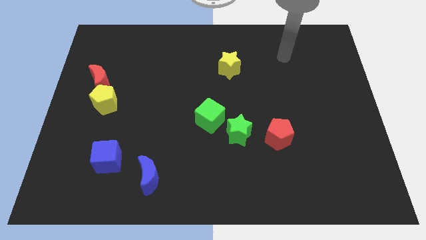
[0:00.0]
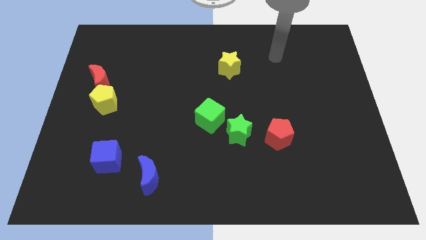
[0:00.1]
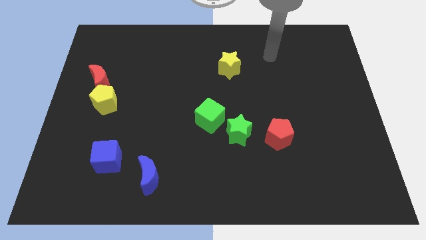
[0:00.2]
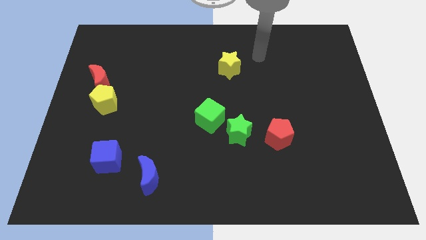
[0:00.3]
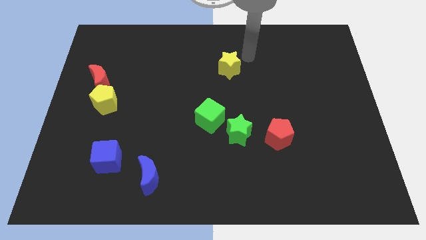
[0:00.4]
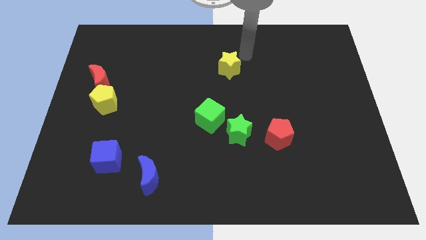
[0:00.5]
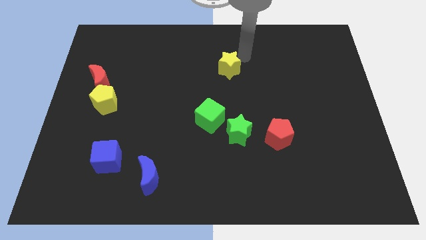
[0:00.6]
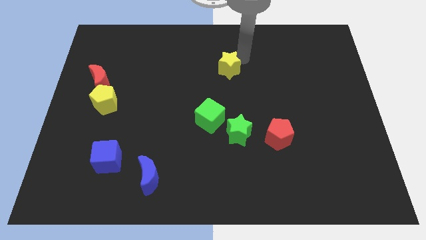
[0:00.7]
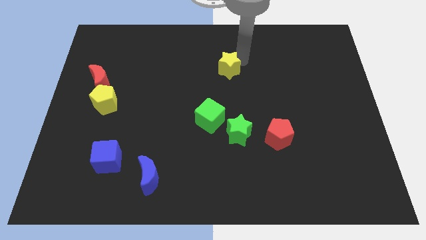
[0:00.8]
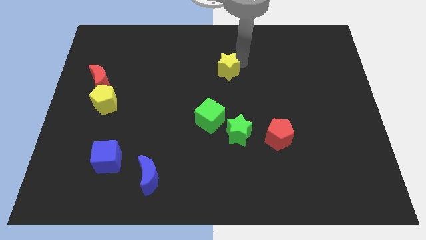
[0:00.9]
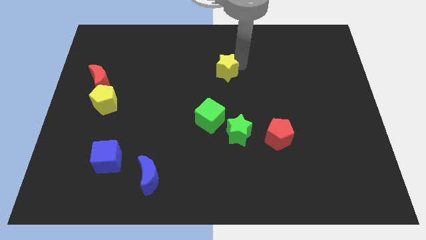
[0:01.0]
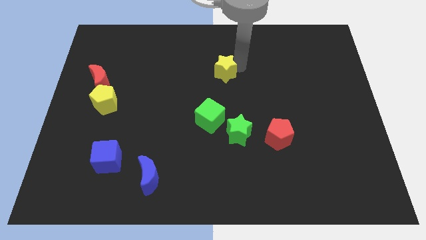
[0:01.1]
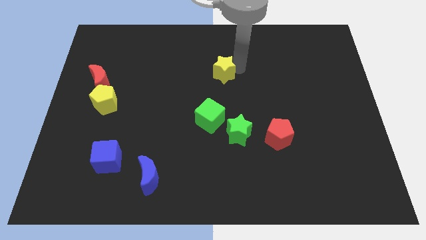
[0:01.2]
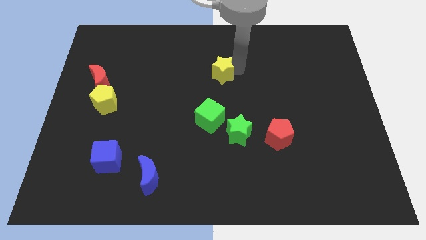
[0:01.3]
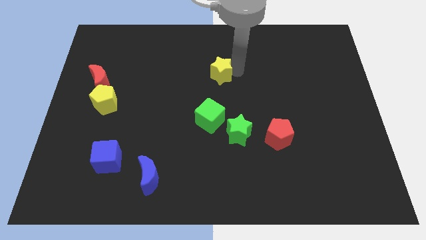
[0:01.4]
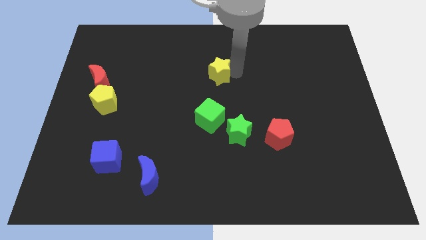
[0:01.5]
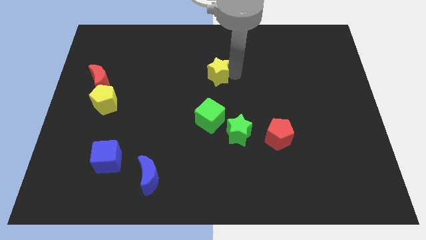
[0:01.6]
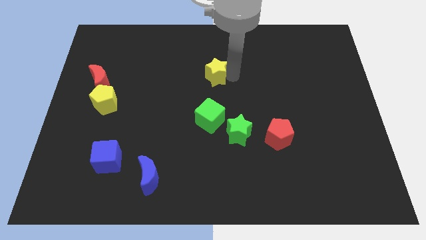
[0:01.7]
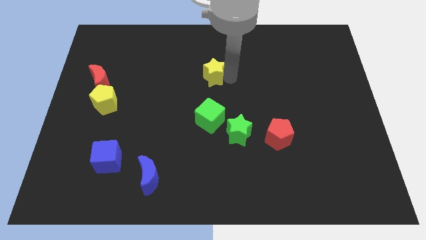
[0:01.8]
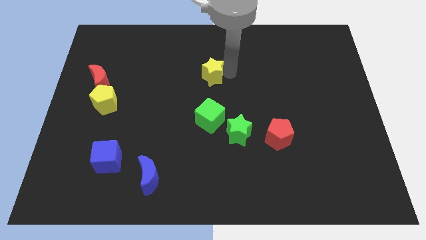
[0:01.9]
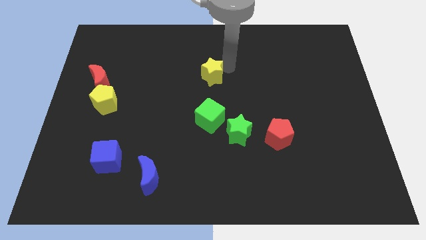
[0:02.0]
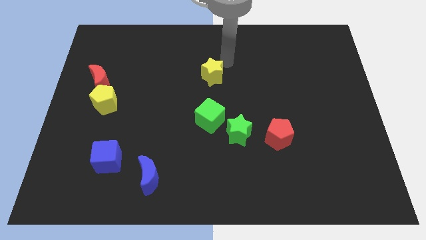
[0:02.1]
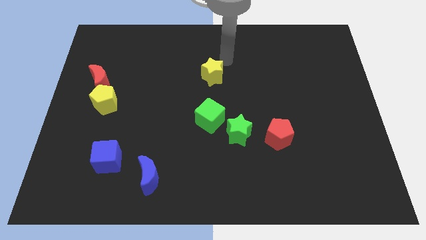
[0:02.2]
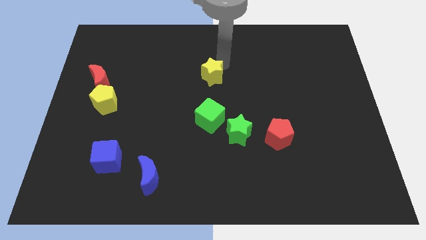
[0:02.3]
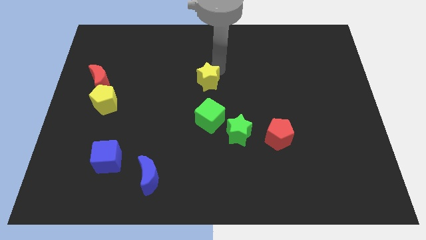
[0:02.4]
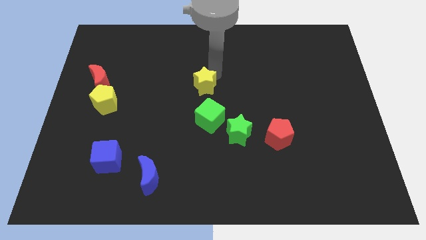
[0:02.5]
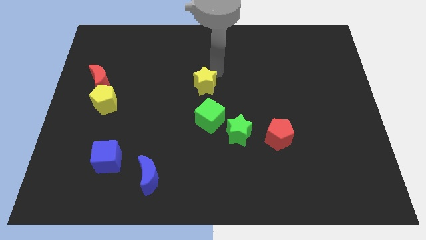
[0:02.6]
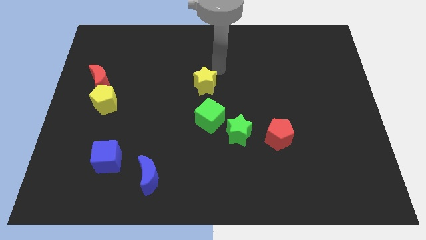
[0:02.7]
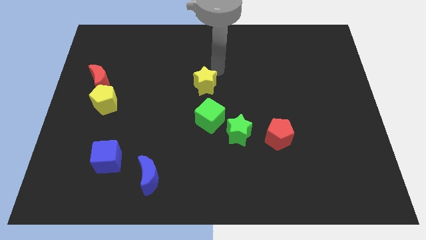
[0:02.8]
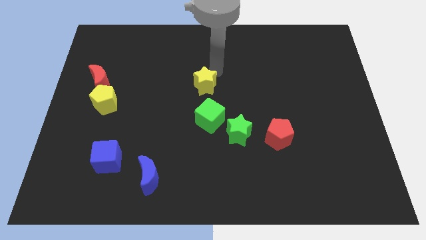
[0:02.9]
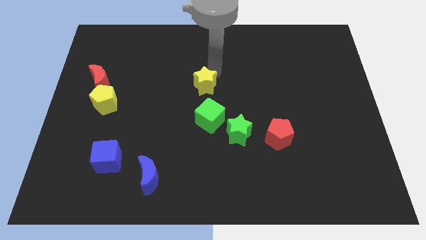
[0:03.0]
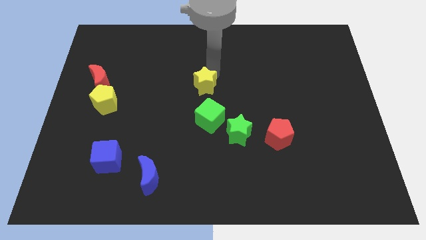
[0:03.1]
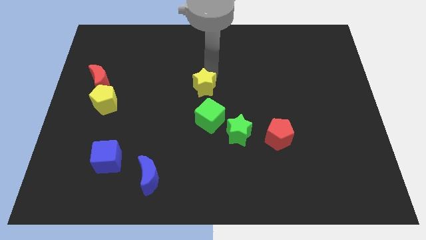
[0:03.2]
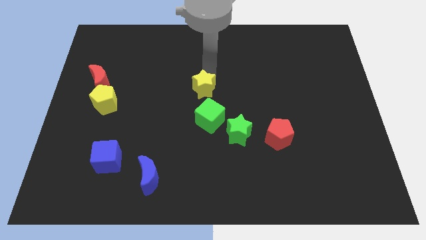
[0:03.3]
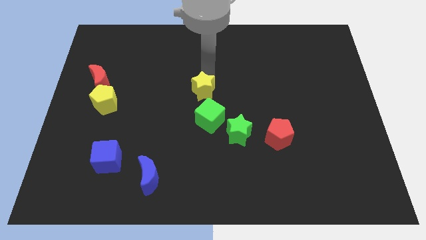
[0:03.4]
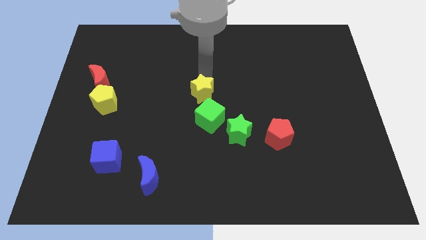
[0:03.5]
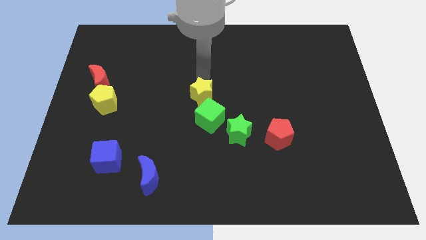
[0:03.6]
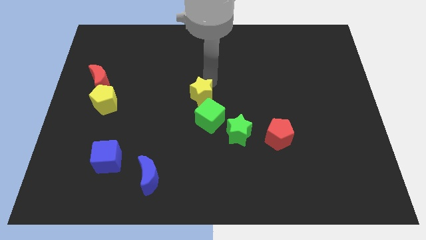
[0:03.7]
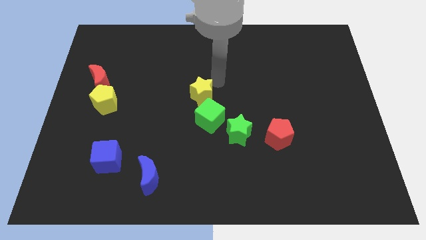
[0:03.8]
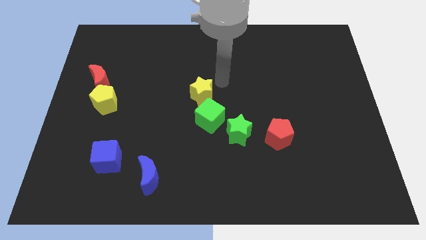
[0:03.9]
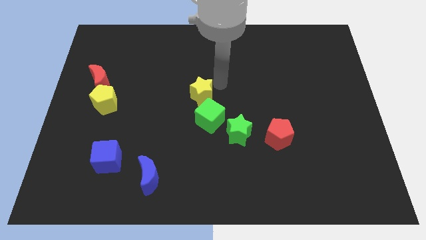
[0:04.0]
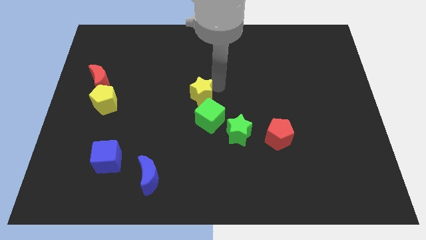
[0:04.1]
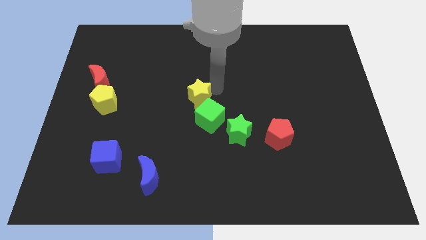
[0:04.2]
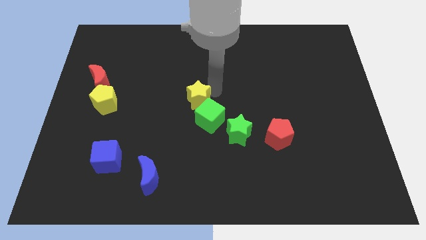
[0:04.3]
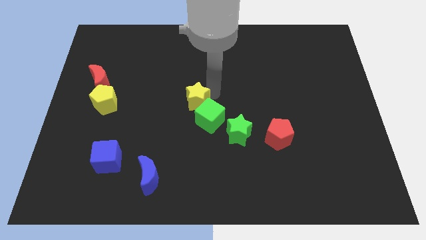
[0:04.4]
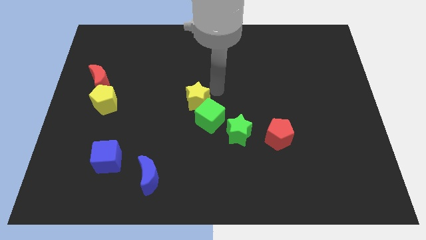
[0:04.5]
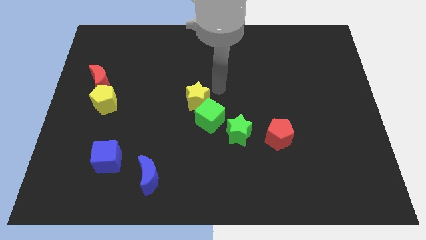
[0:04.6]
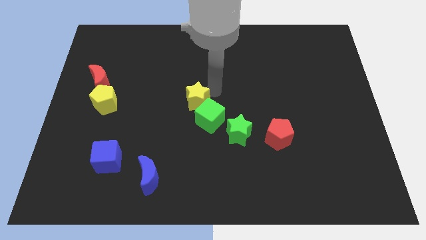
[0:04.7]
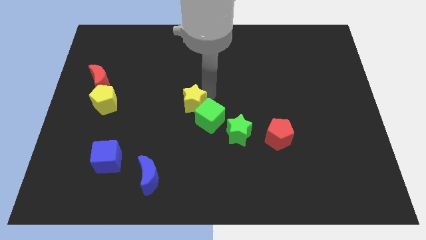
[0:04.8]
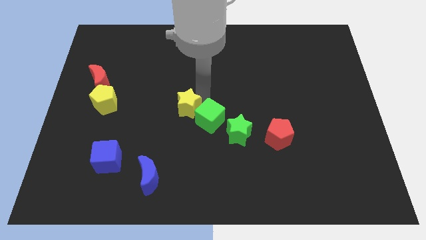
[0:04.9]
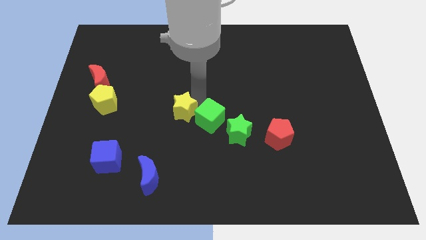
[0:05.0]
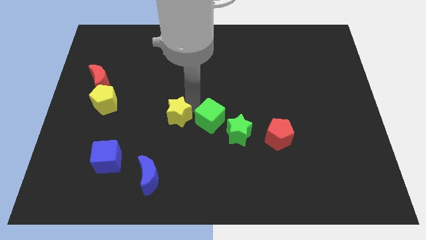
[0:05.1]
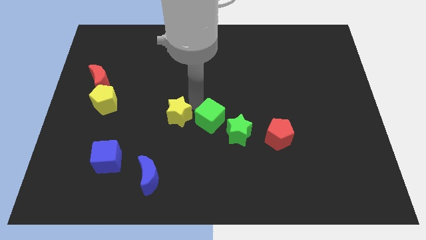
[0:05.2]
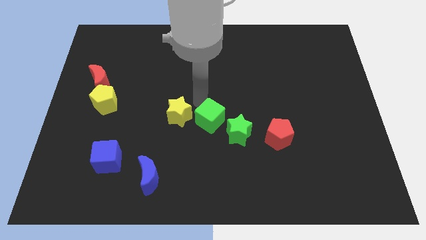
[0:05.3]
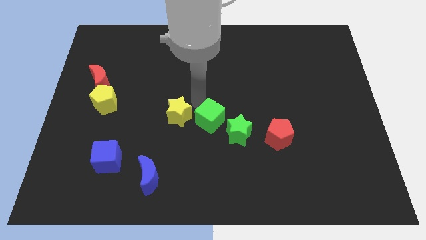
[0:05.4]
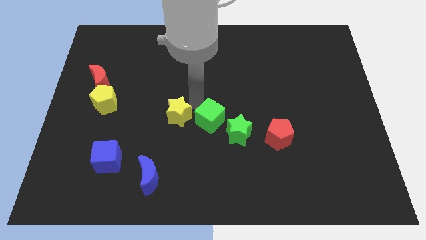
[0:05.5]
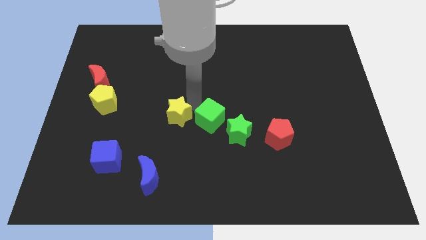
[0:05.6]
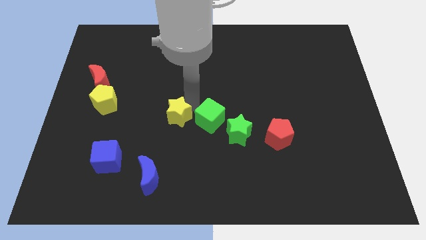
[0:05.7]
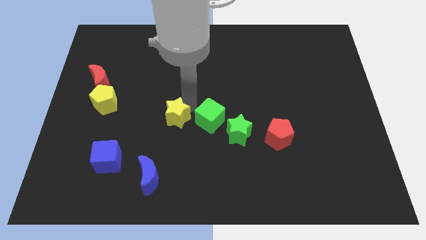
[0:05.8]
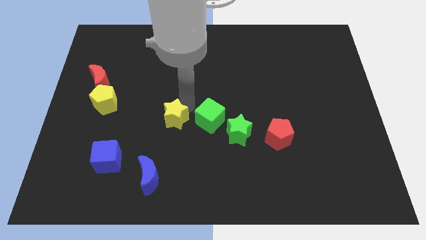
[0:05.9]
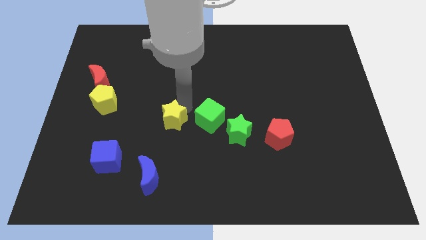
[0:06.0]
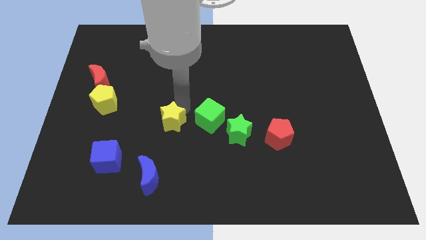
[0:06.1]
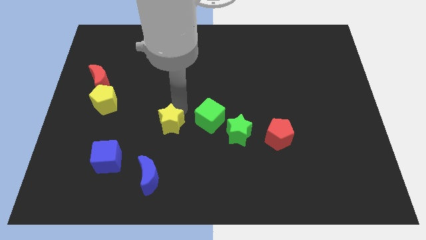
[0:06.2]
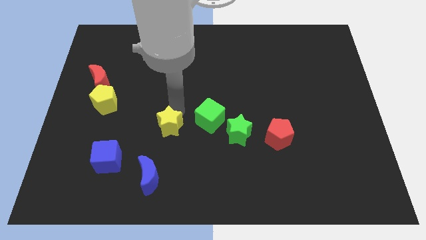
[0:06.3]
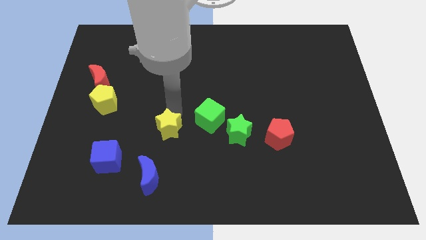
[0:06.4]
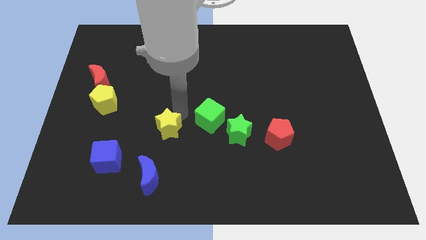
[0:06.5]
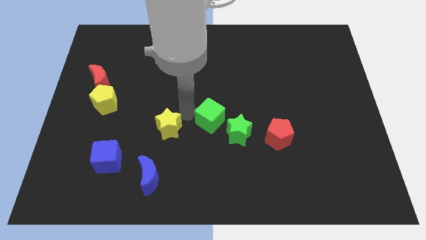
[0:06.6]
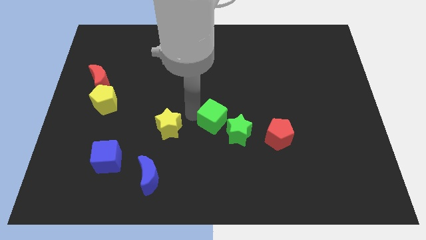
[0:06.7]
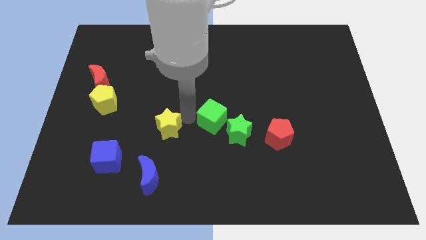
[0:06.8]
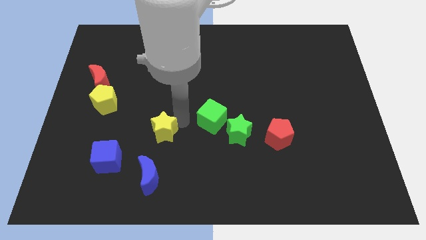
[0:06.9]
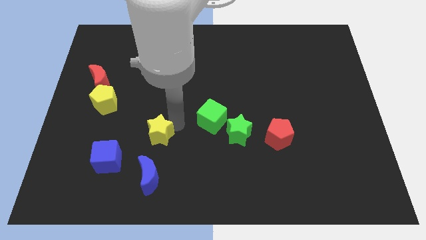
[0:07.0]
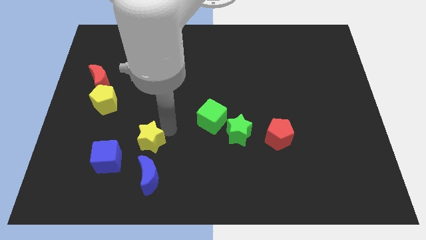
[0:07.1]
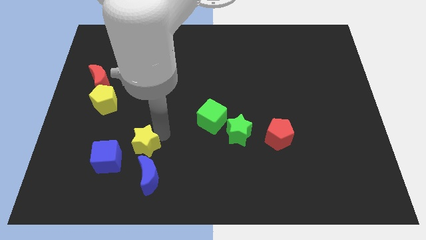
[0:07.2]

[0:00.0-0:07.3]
slide the yellow star to the top left side of the blue moon

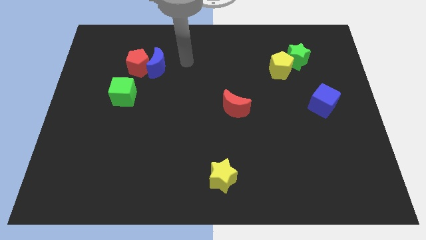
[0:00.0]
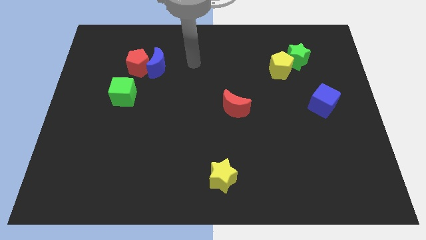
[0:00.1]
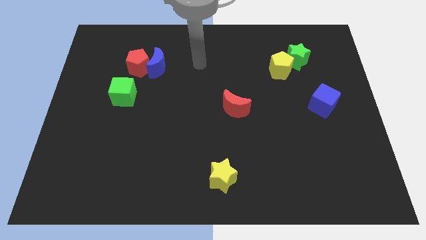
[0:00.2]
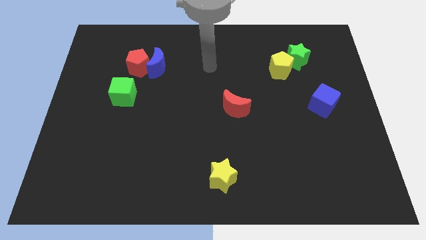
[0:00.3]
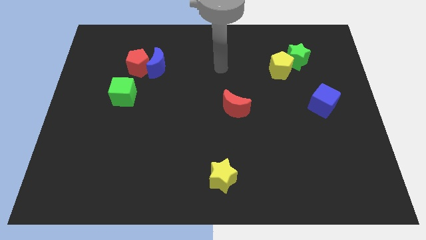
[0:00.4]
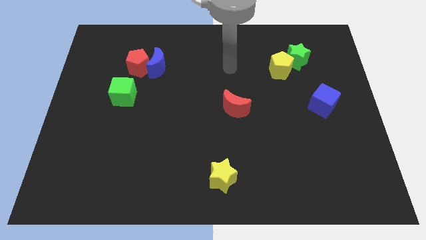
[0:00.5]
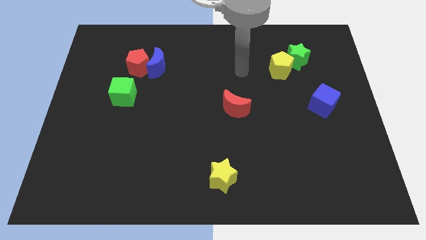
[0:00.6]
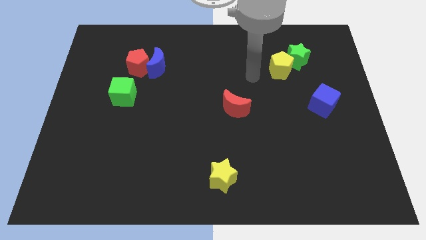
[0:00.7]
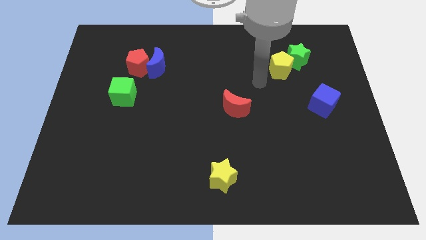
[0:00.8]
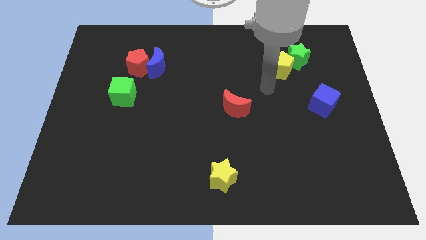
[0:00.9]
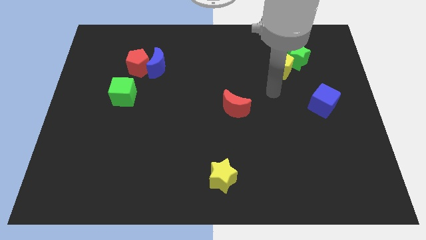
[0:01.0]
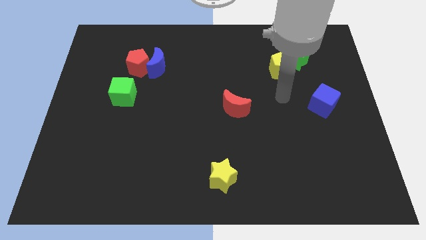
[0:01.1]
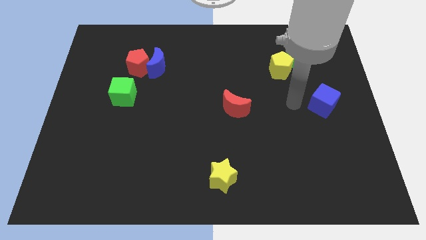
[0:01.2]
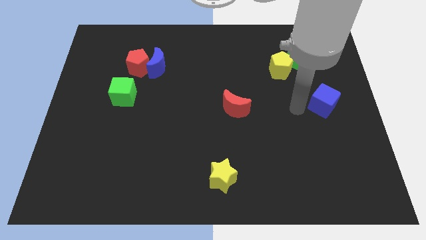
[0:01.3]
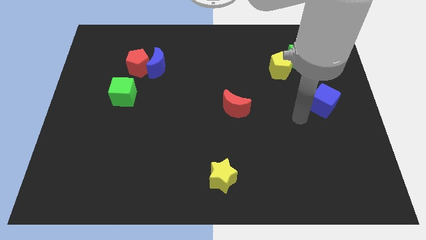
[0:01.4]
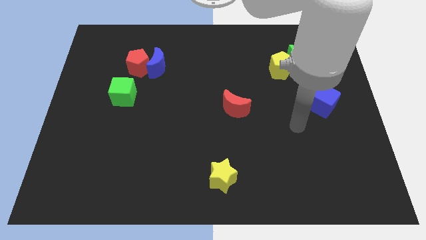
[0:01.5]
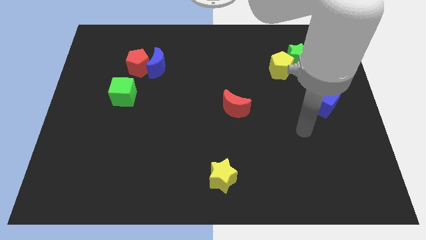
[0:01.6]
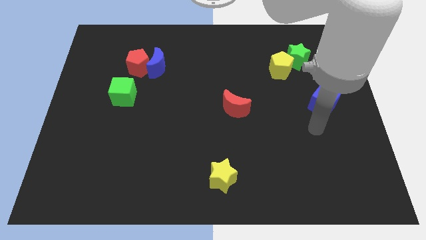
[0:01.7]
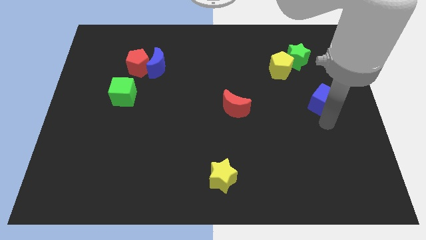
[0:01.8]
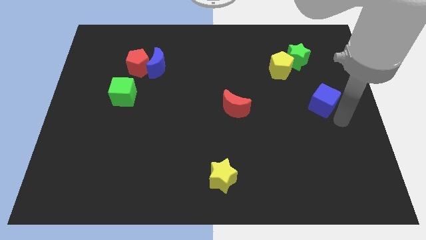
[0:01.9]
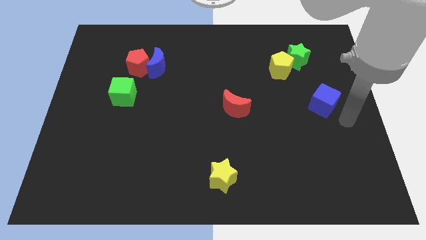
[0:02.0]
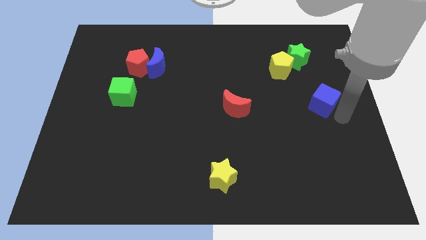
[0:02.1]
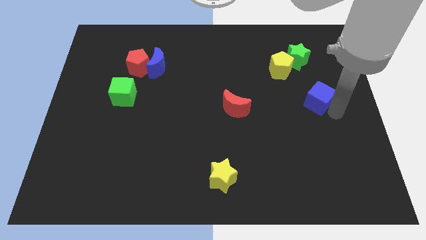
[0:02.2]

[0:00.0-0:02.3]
move the blue cube to the bottom of the green star
